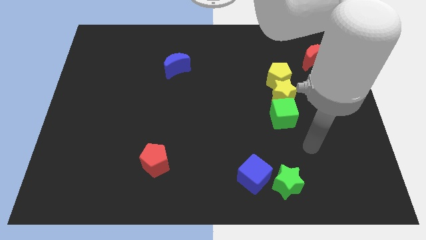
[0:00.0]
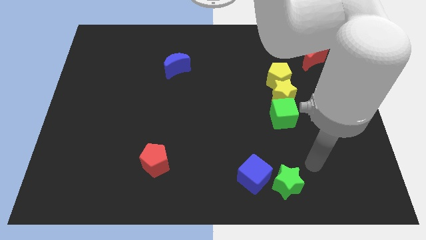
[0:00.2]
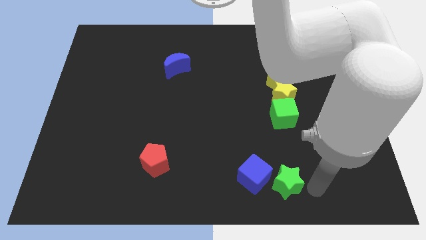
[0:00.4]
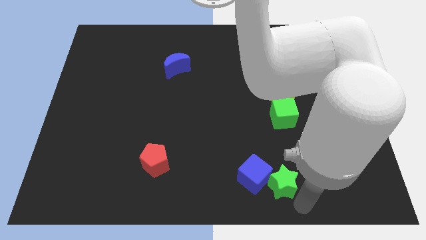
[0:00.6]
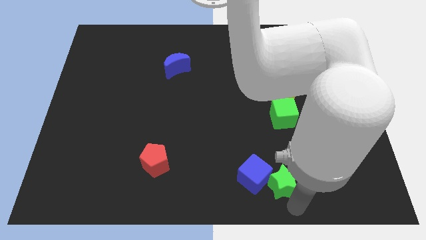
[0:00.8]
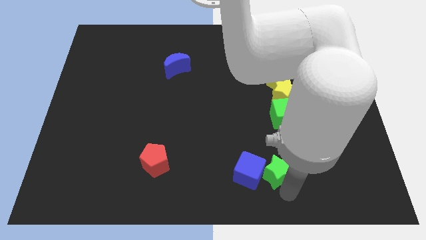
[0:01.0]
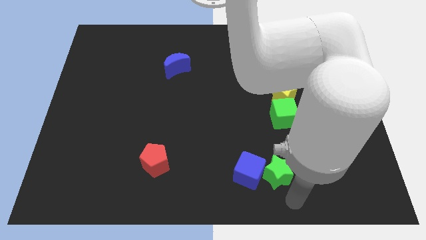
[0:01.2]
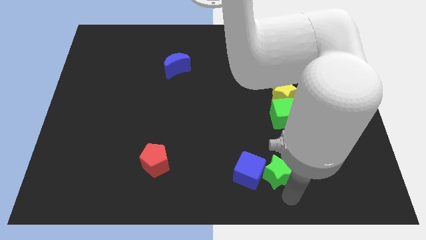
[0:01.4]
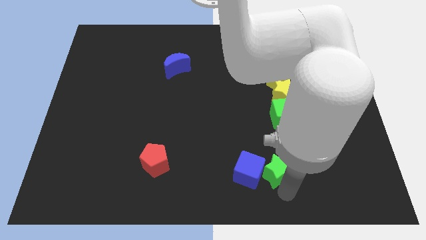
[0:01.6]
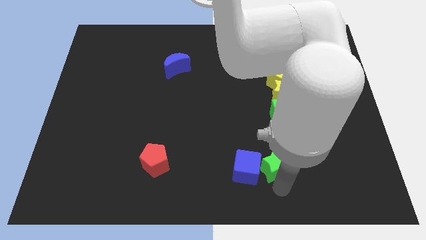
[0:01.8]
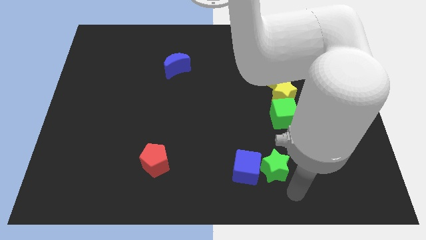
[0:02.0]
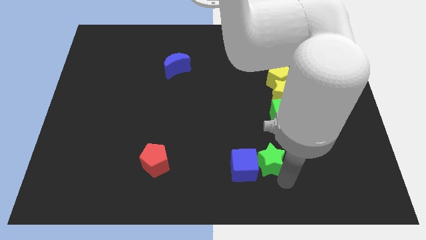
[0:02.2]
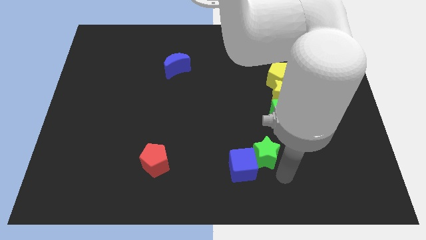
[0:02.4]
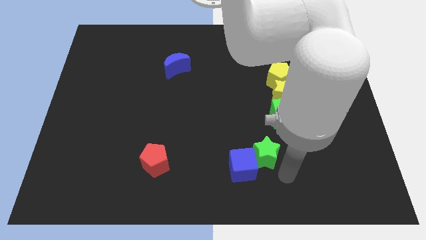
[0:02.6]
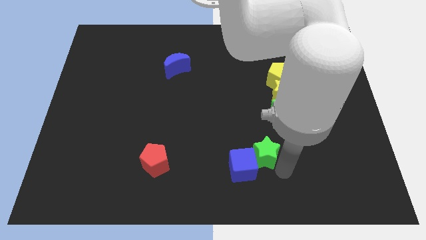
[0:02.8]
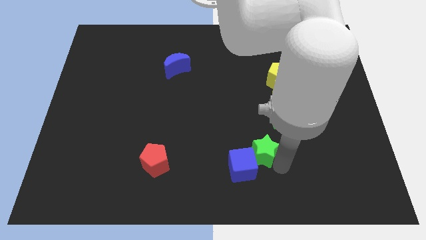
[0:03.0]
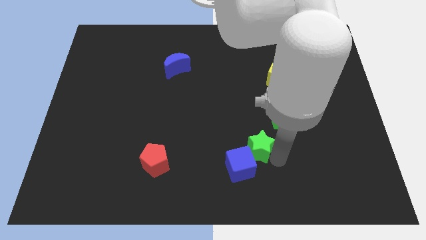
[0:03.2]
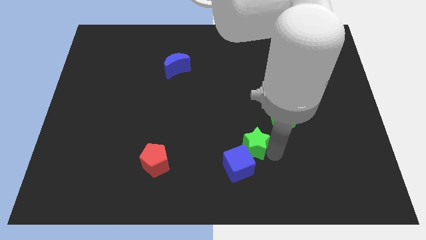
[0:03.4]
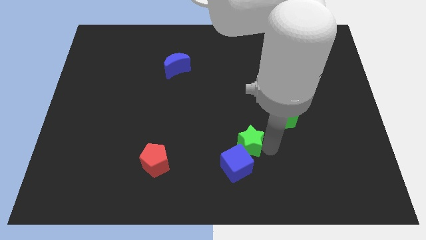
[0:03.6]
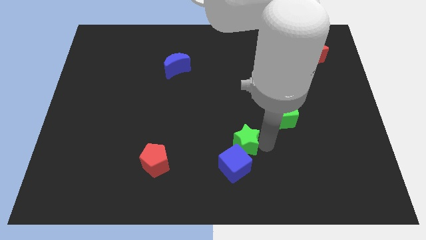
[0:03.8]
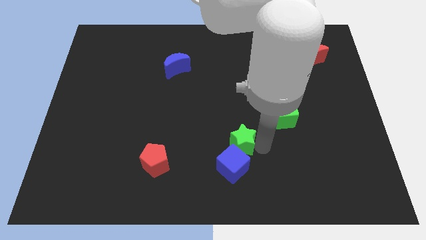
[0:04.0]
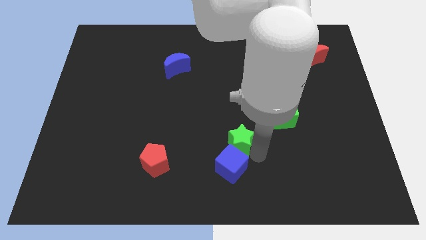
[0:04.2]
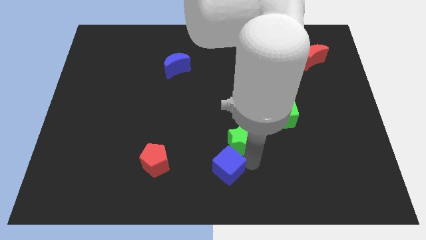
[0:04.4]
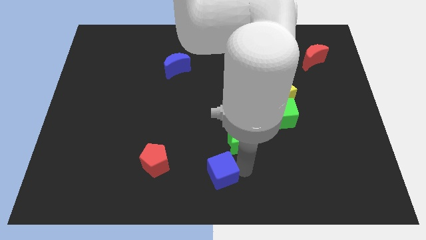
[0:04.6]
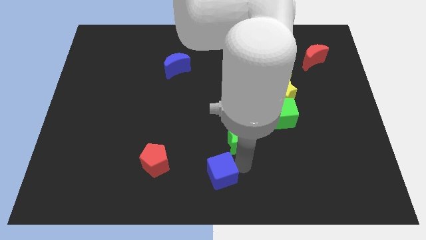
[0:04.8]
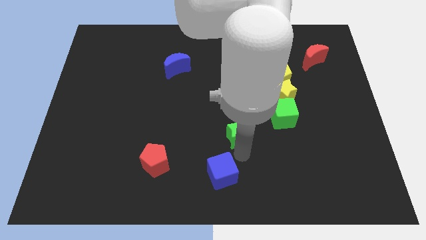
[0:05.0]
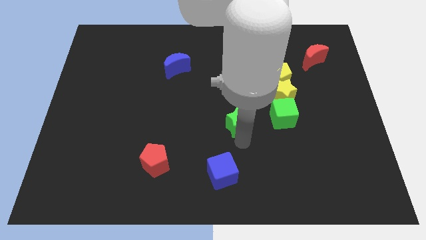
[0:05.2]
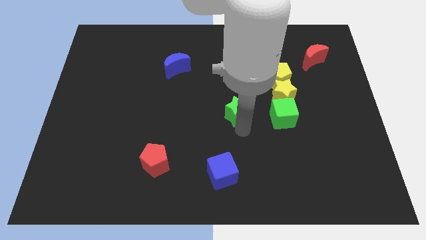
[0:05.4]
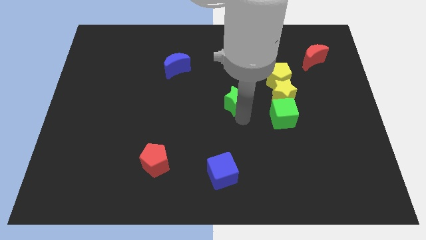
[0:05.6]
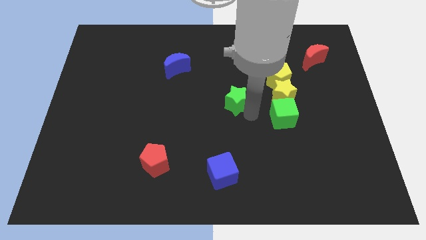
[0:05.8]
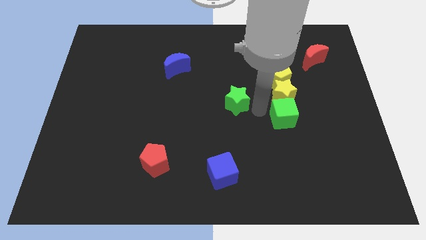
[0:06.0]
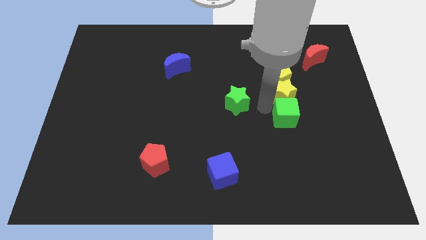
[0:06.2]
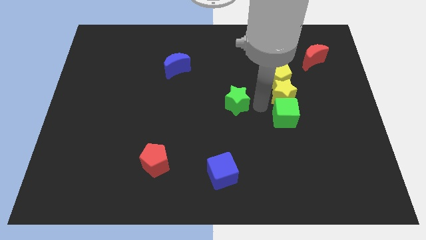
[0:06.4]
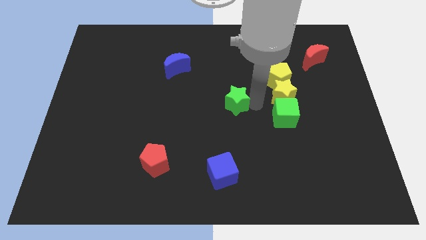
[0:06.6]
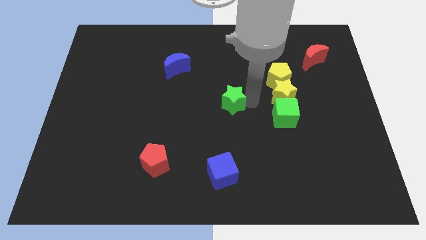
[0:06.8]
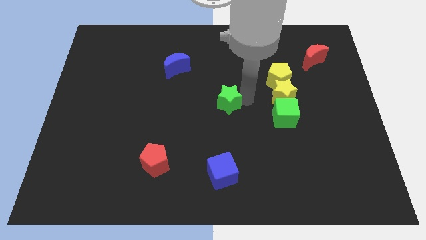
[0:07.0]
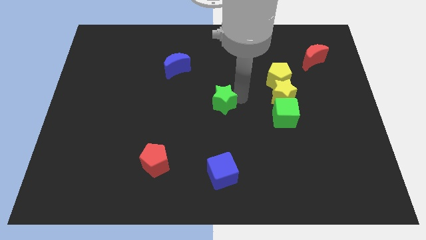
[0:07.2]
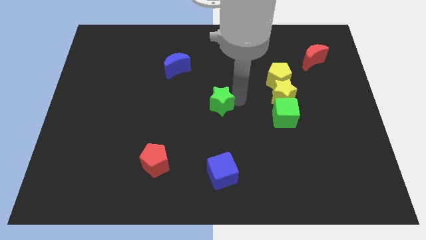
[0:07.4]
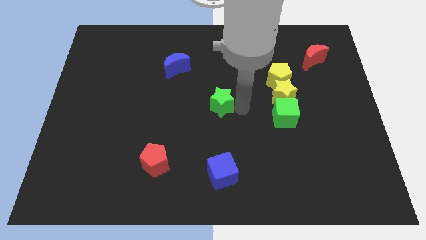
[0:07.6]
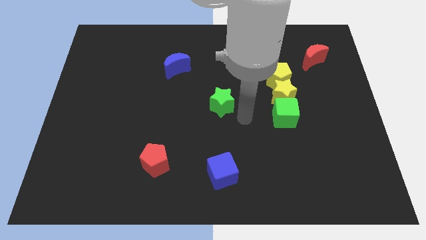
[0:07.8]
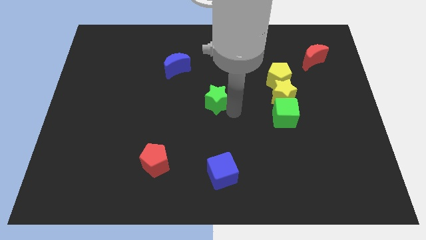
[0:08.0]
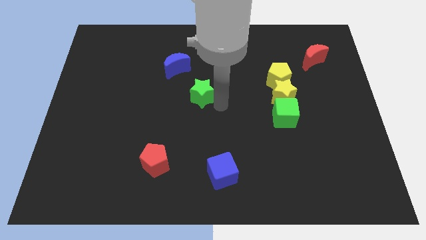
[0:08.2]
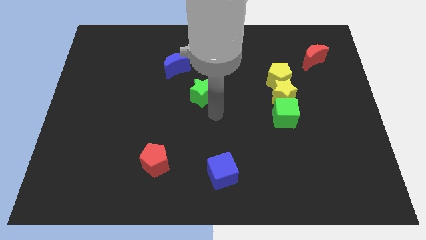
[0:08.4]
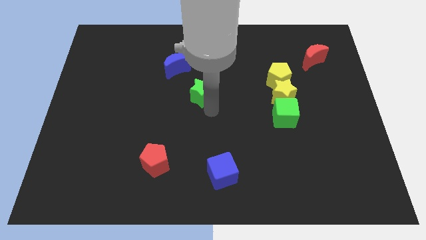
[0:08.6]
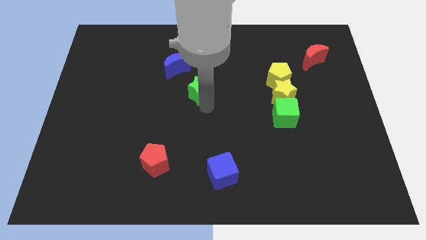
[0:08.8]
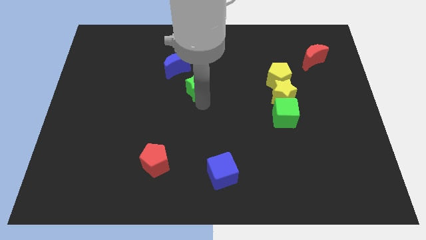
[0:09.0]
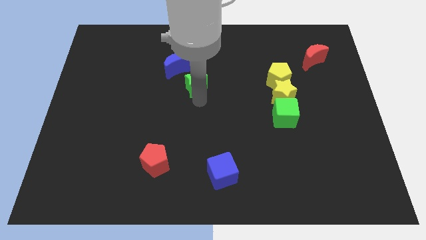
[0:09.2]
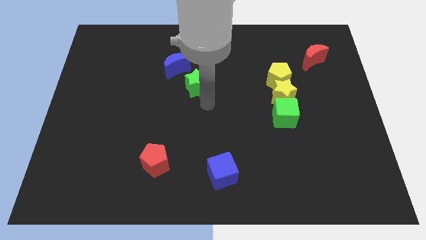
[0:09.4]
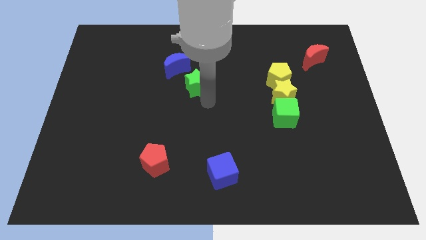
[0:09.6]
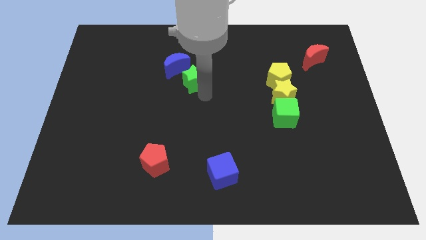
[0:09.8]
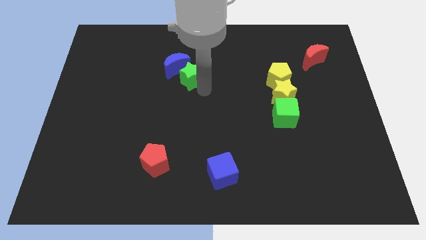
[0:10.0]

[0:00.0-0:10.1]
put the green star towards the blue moon

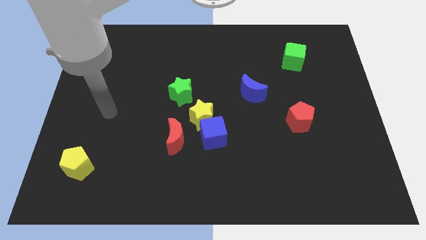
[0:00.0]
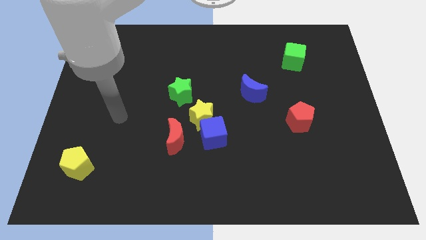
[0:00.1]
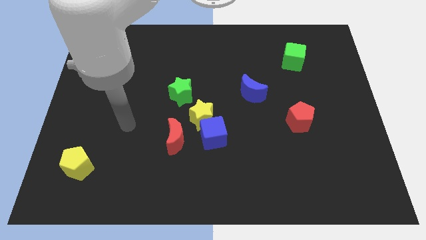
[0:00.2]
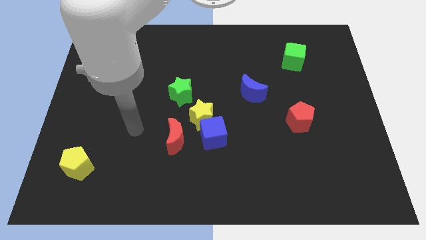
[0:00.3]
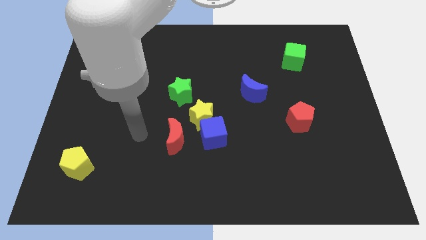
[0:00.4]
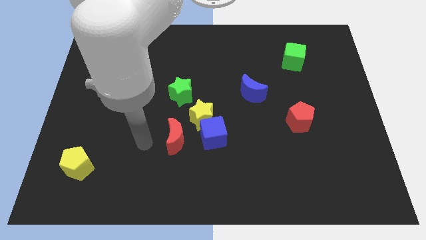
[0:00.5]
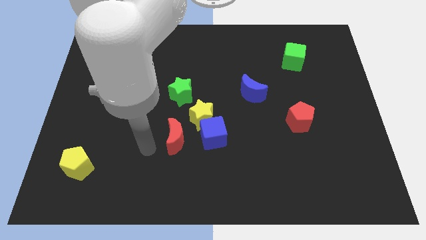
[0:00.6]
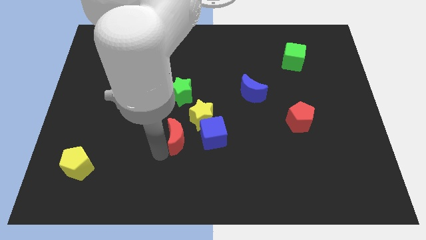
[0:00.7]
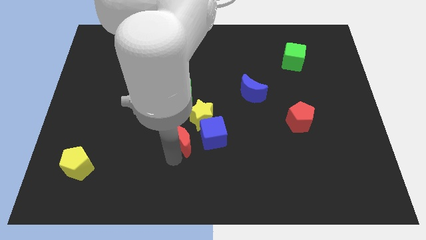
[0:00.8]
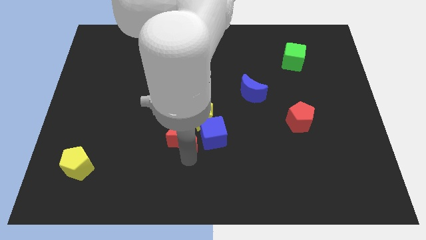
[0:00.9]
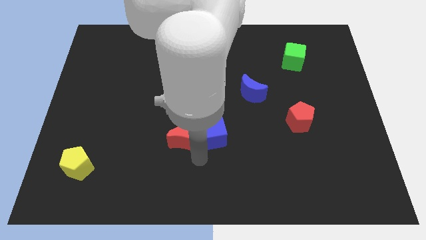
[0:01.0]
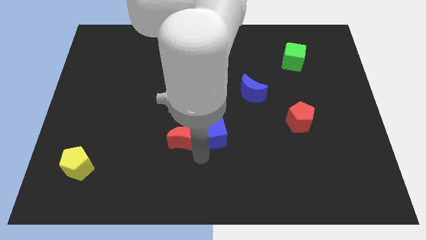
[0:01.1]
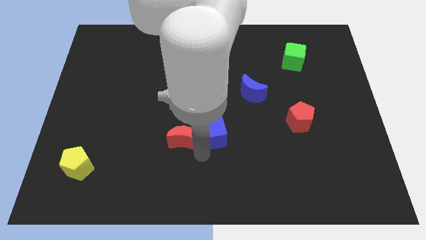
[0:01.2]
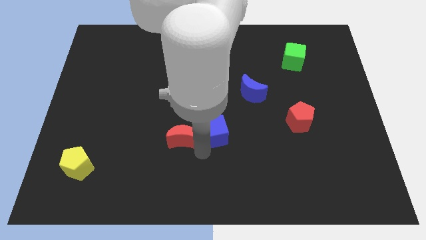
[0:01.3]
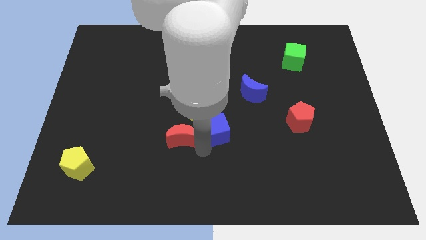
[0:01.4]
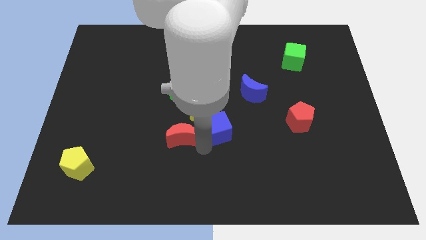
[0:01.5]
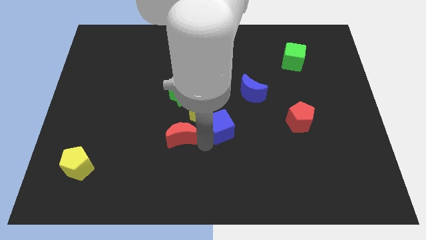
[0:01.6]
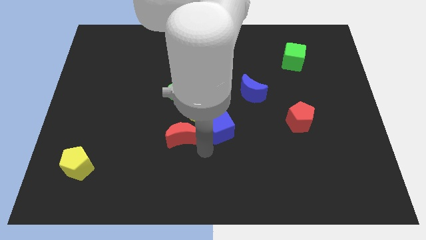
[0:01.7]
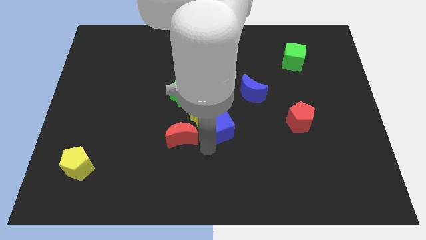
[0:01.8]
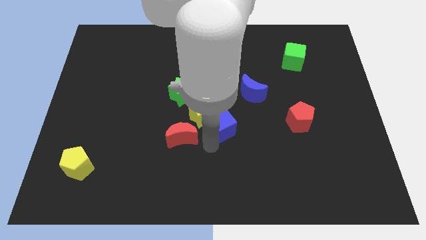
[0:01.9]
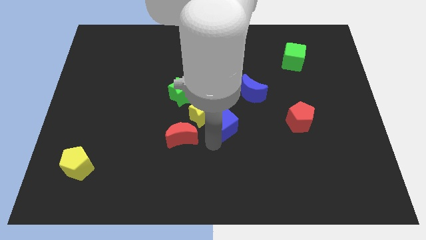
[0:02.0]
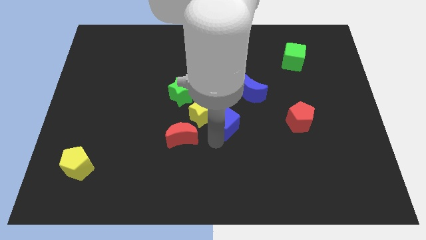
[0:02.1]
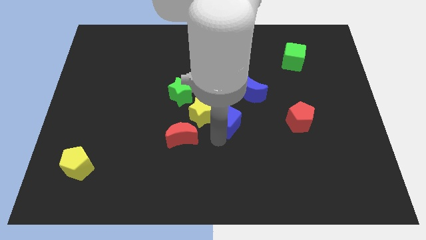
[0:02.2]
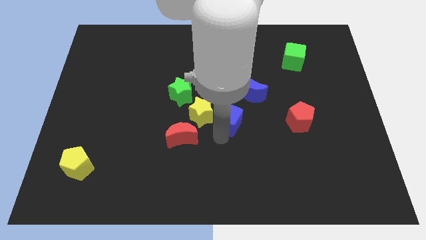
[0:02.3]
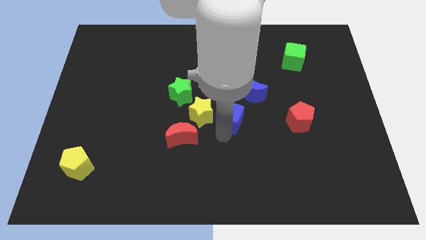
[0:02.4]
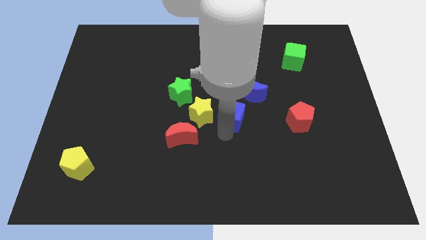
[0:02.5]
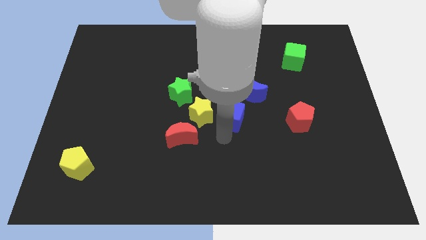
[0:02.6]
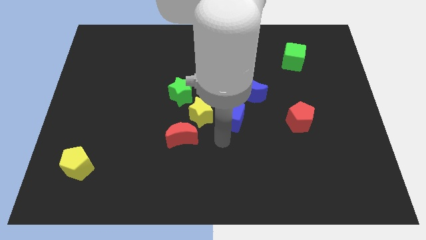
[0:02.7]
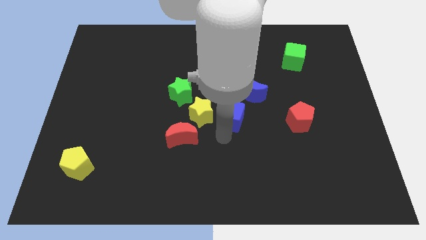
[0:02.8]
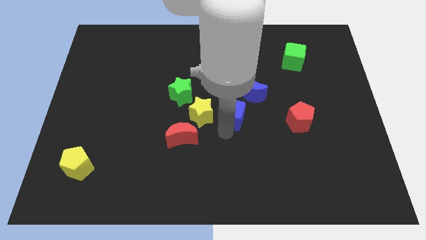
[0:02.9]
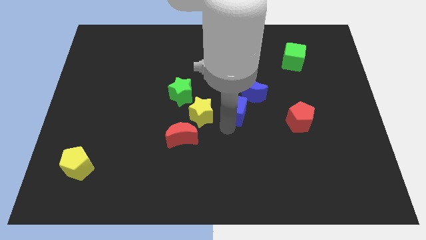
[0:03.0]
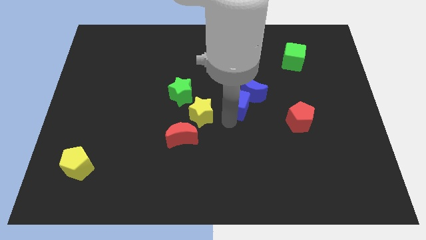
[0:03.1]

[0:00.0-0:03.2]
put the blue cube next to the blue moon
